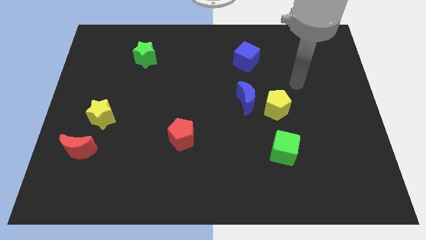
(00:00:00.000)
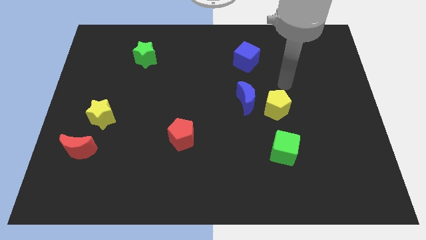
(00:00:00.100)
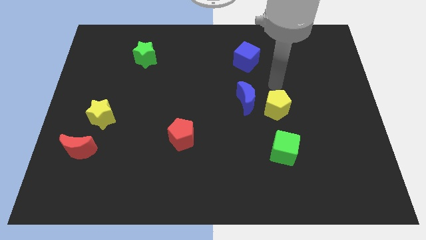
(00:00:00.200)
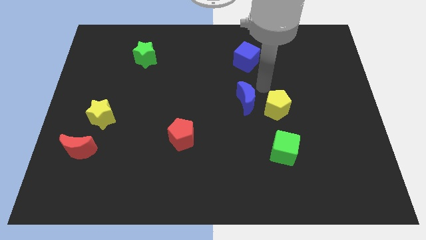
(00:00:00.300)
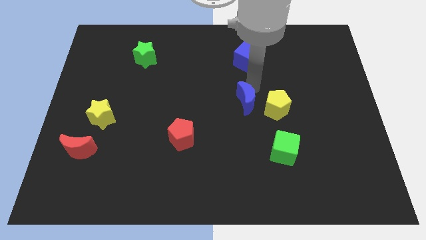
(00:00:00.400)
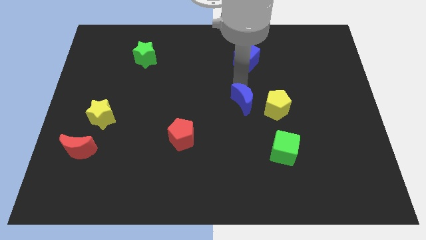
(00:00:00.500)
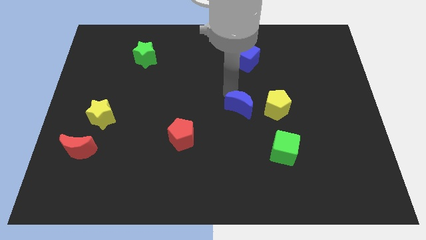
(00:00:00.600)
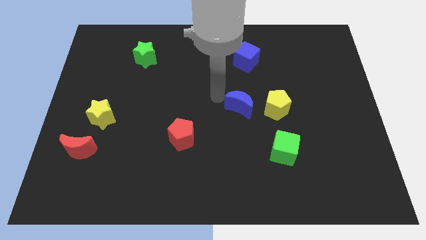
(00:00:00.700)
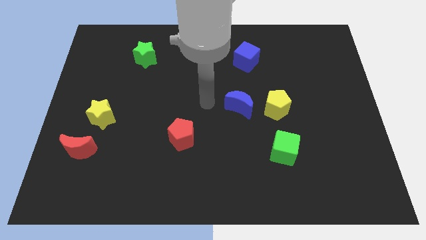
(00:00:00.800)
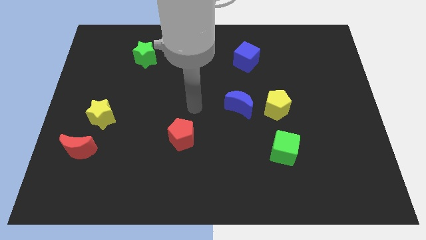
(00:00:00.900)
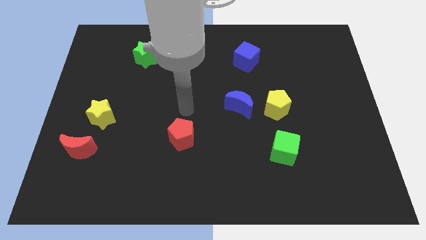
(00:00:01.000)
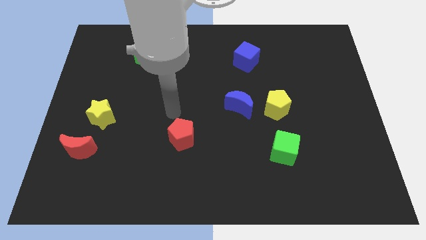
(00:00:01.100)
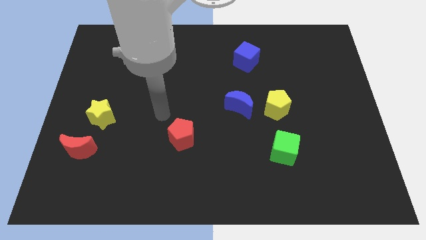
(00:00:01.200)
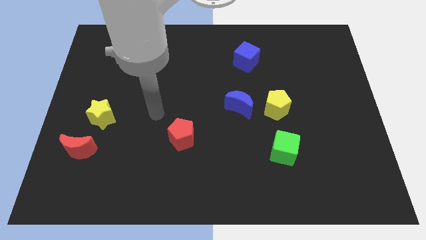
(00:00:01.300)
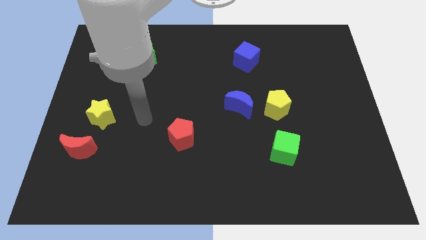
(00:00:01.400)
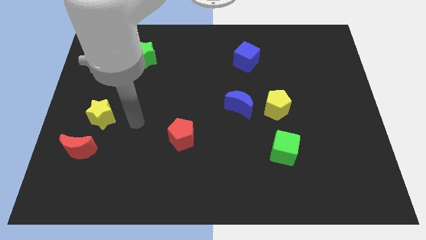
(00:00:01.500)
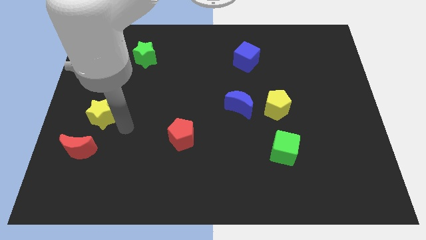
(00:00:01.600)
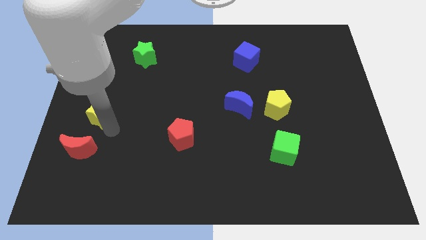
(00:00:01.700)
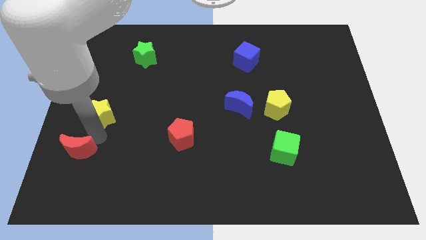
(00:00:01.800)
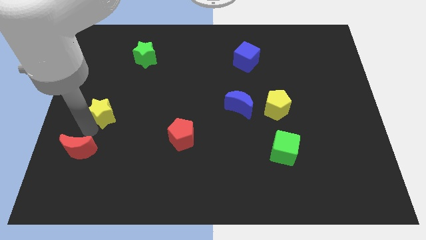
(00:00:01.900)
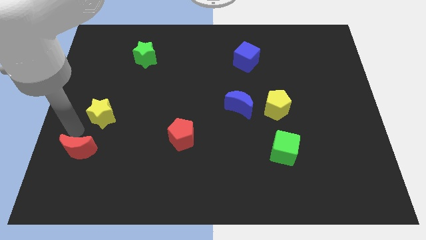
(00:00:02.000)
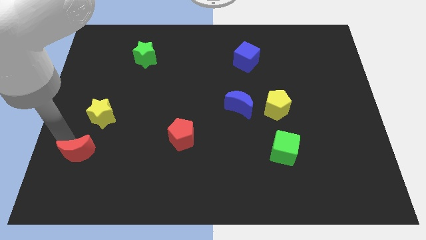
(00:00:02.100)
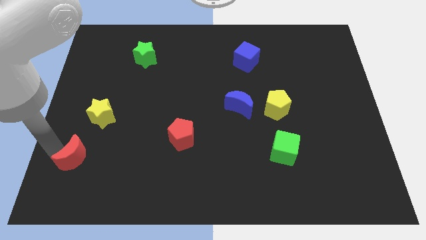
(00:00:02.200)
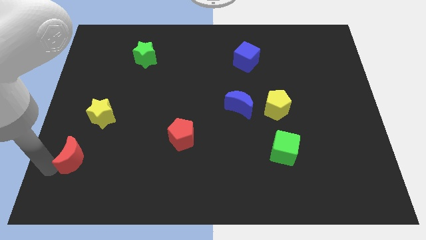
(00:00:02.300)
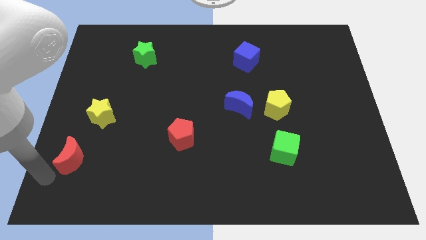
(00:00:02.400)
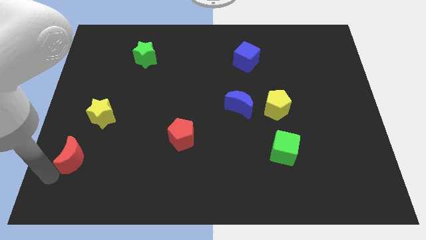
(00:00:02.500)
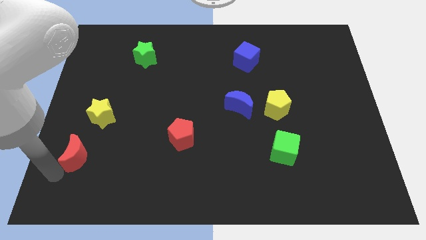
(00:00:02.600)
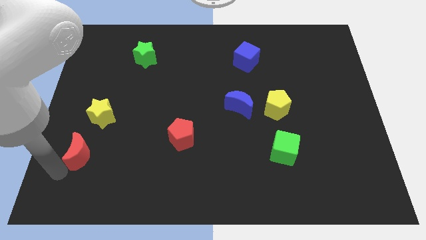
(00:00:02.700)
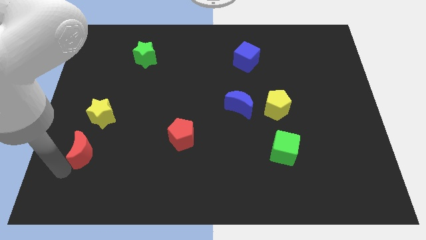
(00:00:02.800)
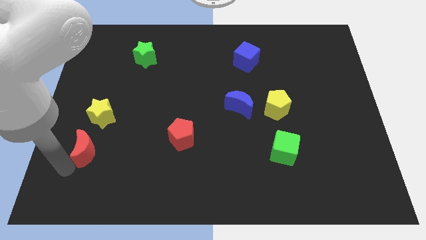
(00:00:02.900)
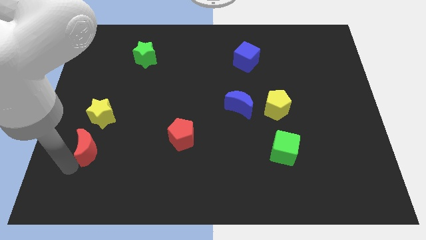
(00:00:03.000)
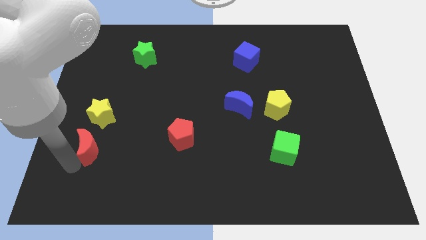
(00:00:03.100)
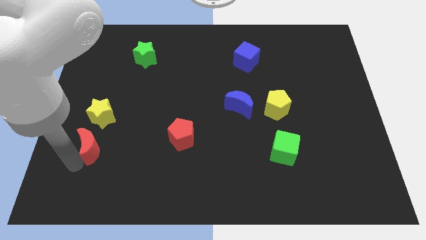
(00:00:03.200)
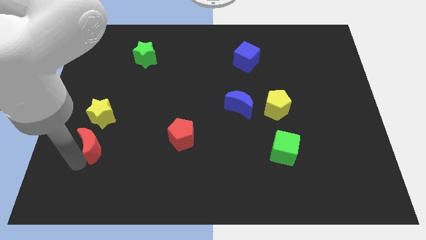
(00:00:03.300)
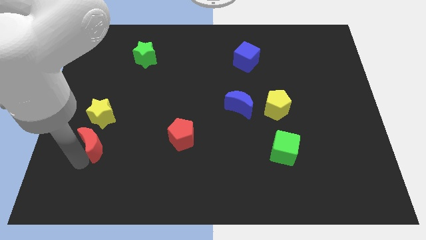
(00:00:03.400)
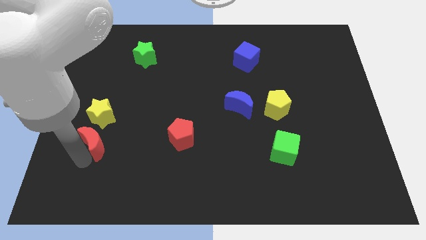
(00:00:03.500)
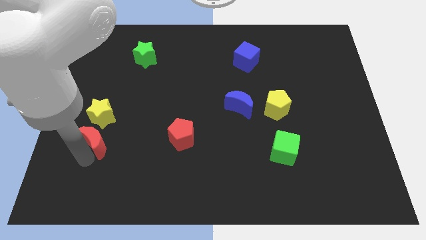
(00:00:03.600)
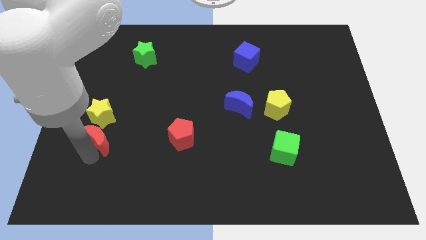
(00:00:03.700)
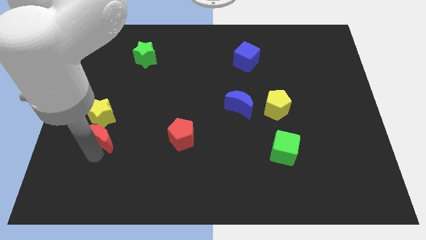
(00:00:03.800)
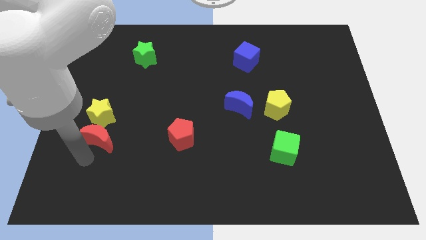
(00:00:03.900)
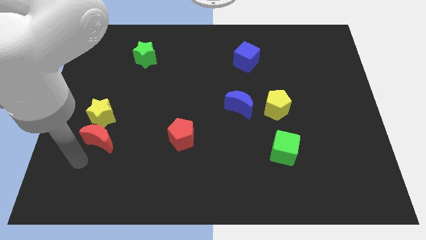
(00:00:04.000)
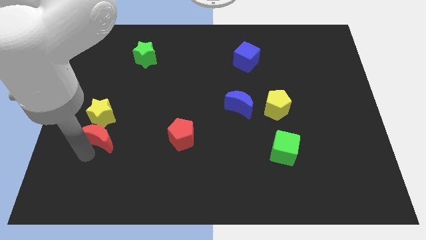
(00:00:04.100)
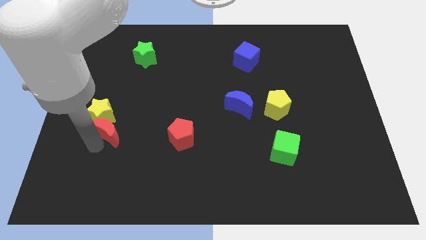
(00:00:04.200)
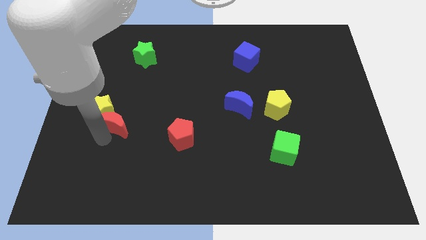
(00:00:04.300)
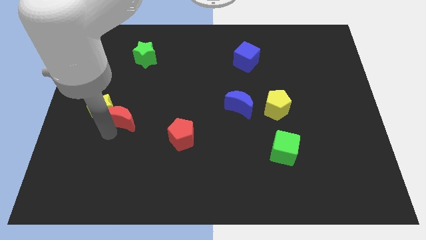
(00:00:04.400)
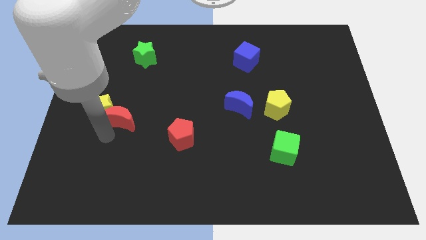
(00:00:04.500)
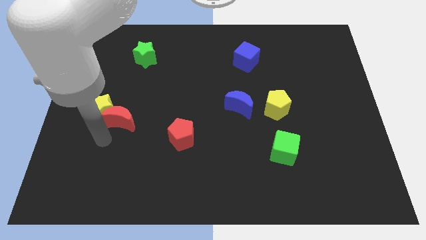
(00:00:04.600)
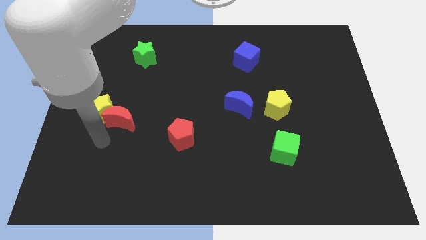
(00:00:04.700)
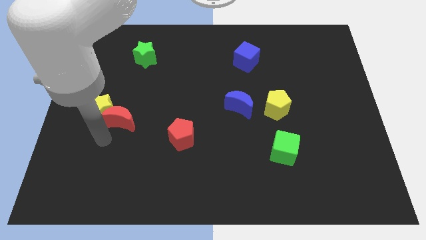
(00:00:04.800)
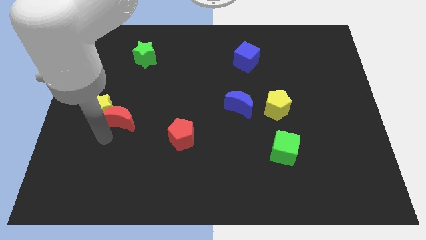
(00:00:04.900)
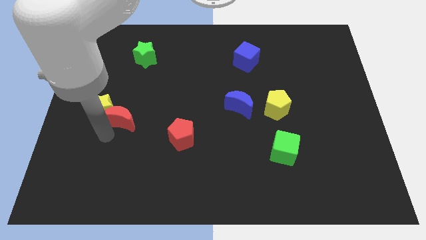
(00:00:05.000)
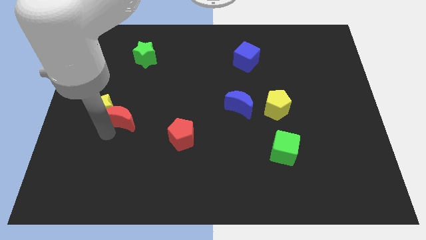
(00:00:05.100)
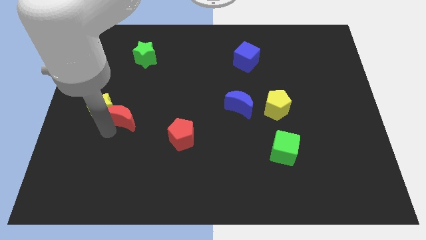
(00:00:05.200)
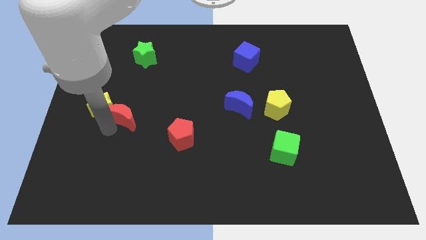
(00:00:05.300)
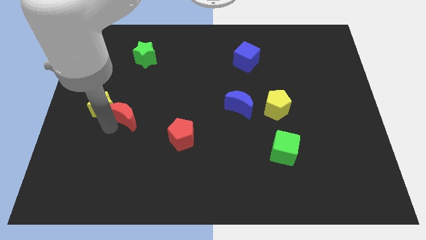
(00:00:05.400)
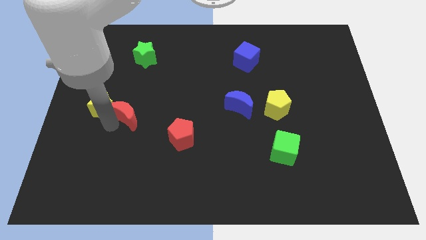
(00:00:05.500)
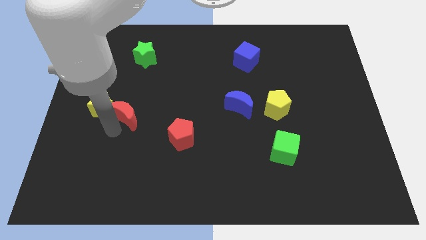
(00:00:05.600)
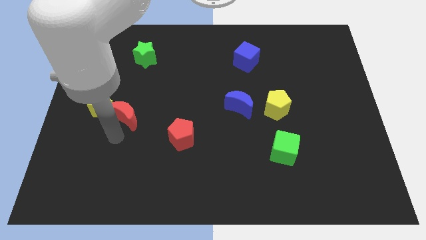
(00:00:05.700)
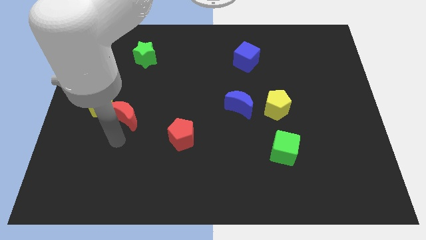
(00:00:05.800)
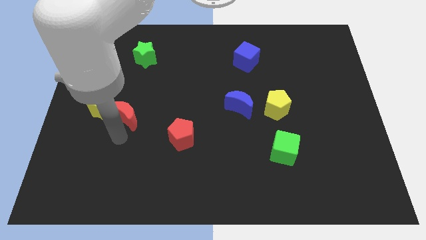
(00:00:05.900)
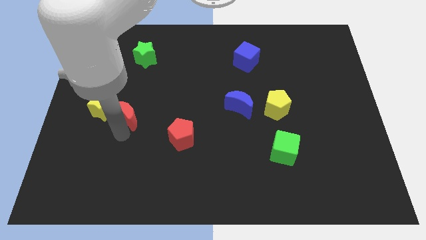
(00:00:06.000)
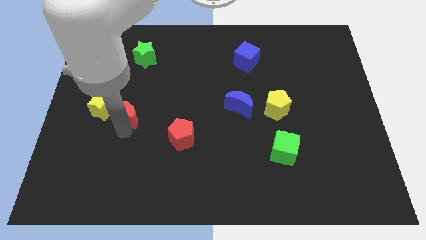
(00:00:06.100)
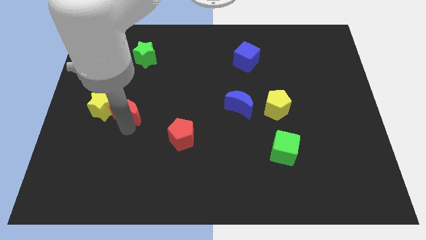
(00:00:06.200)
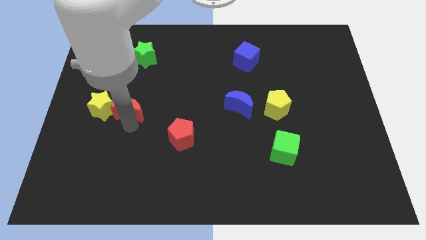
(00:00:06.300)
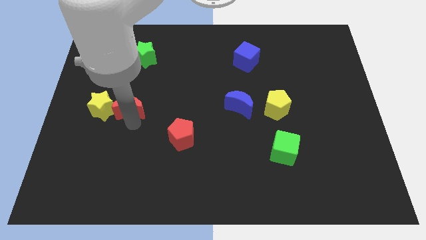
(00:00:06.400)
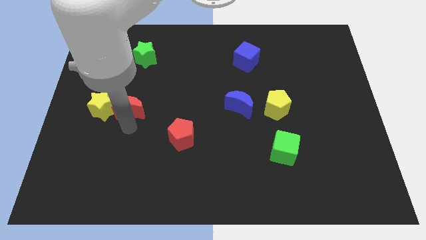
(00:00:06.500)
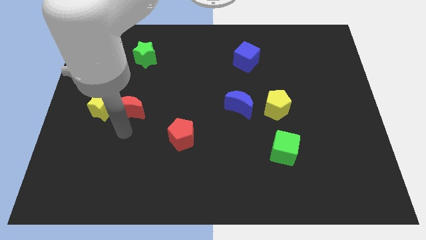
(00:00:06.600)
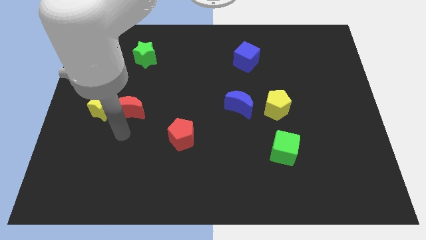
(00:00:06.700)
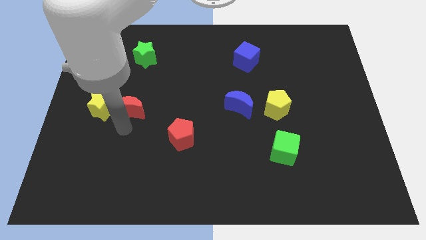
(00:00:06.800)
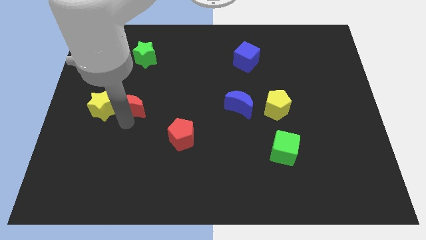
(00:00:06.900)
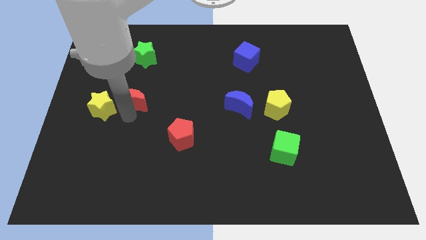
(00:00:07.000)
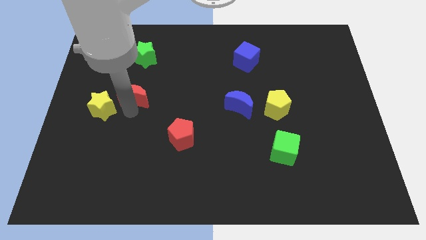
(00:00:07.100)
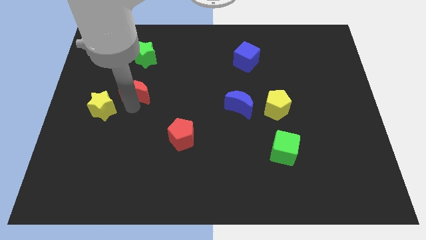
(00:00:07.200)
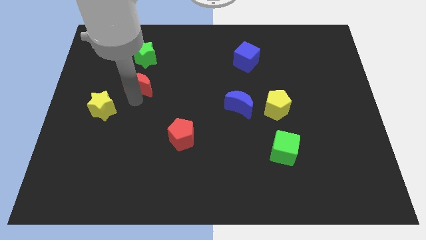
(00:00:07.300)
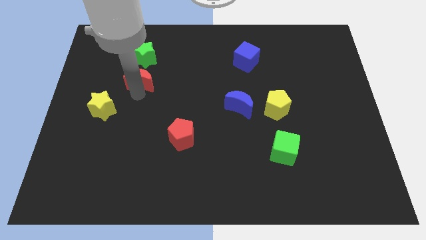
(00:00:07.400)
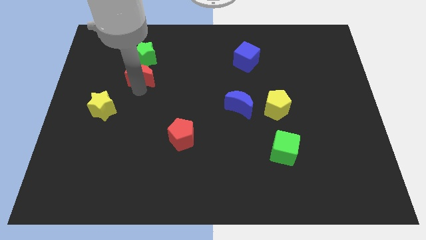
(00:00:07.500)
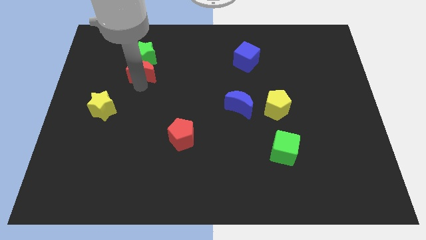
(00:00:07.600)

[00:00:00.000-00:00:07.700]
put the red moon towards the green star
